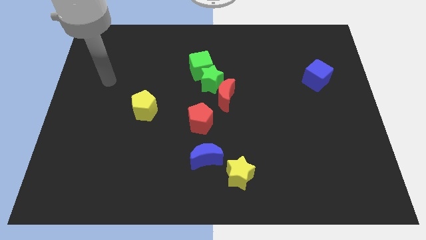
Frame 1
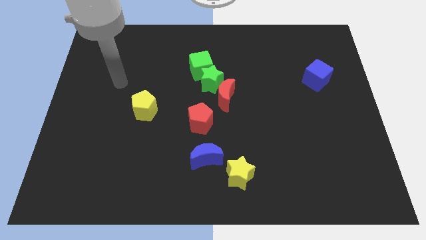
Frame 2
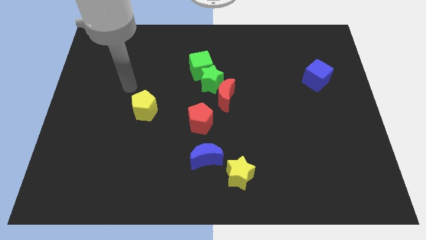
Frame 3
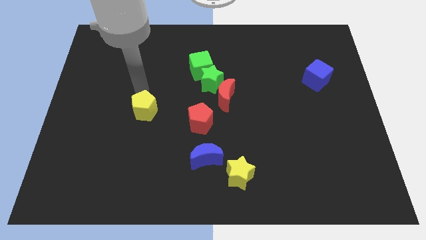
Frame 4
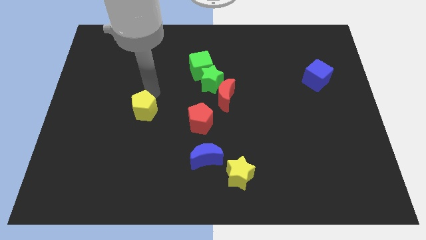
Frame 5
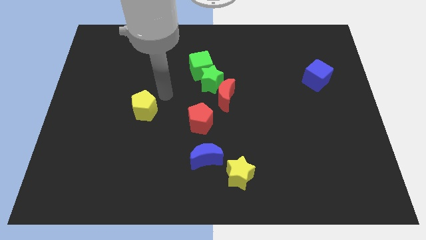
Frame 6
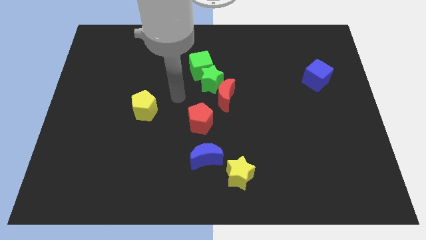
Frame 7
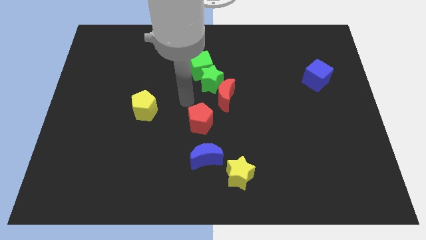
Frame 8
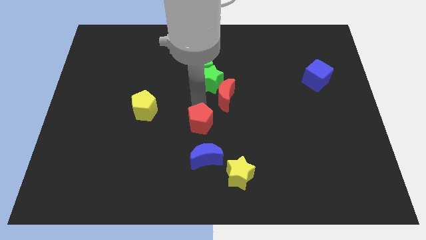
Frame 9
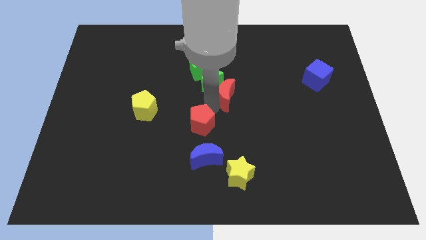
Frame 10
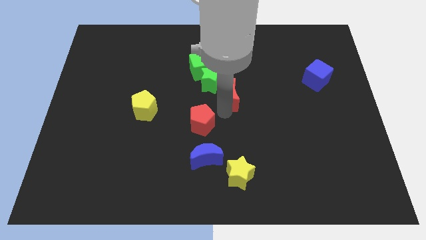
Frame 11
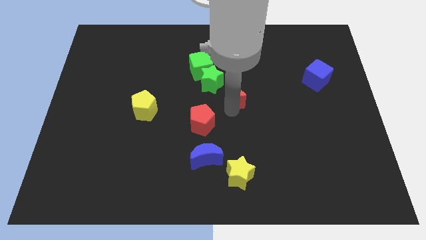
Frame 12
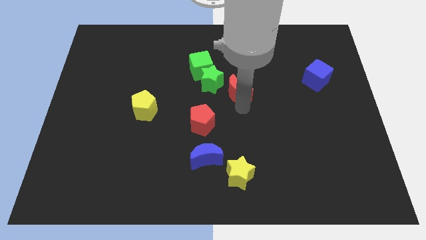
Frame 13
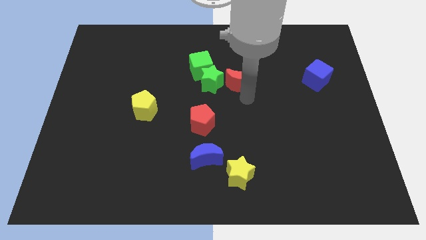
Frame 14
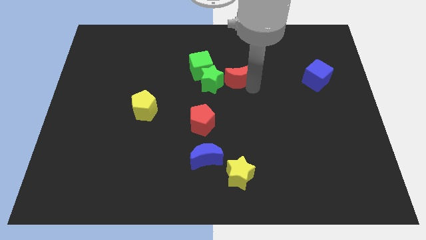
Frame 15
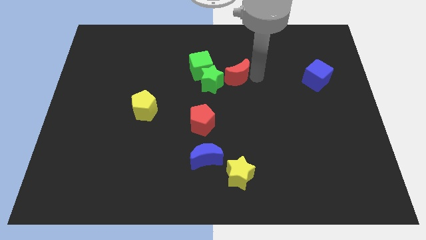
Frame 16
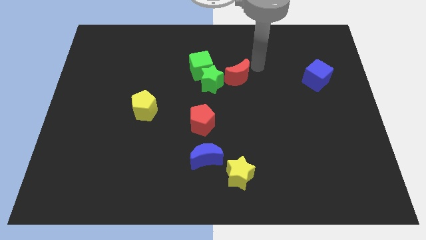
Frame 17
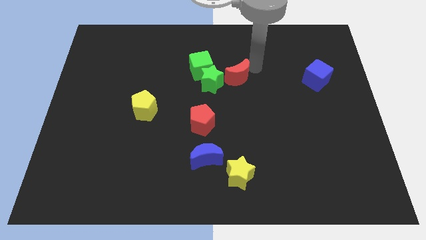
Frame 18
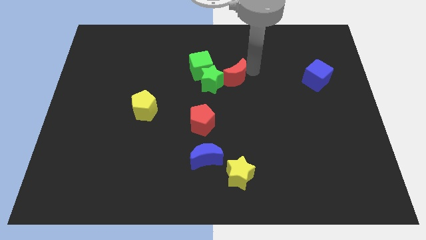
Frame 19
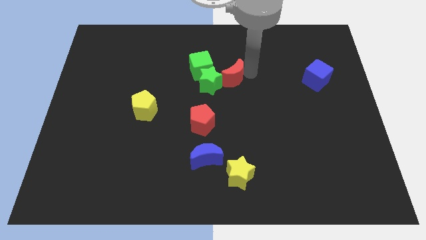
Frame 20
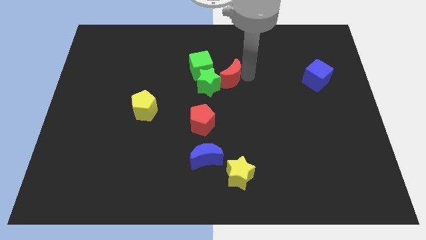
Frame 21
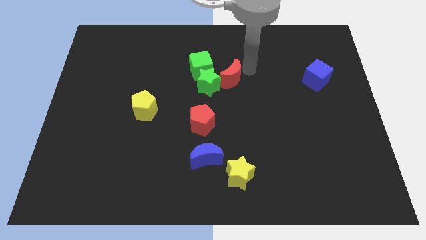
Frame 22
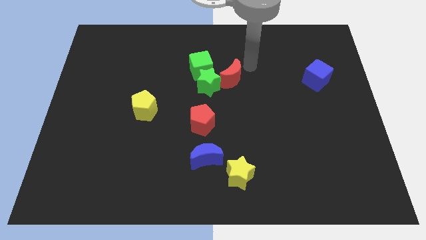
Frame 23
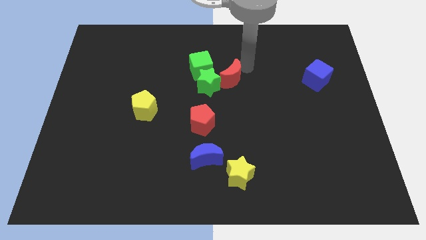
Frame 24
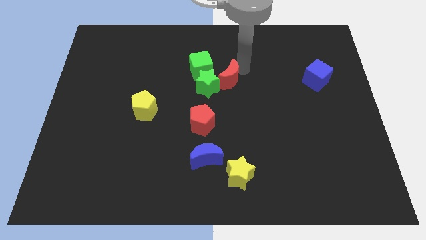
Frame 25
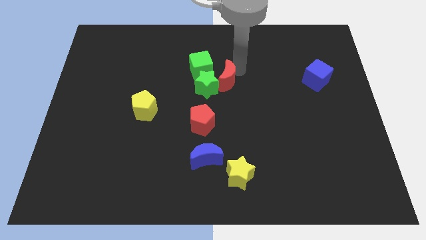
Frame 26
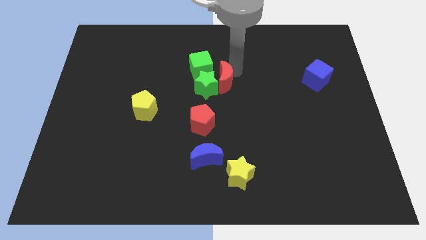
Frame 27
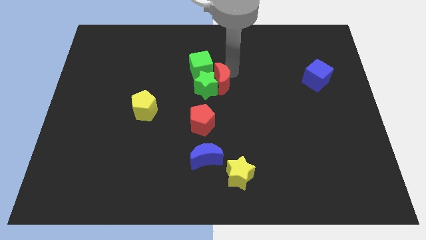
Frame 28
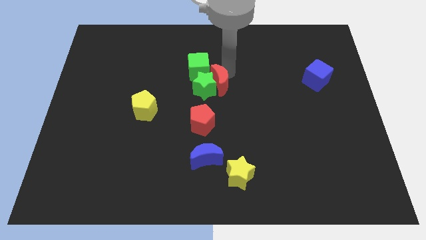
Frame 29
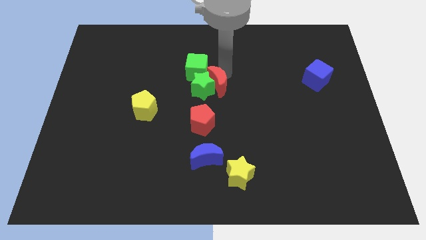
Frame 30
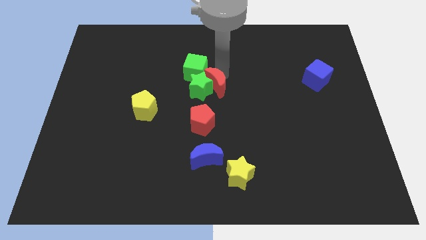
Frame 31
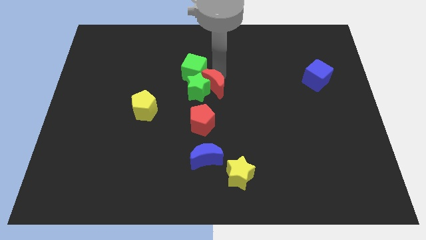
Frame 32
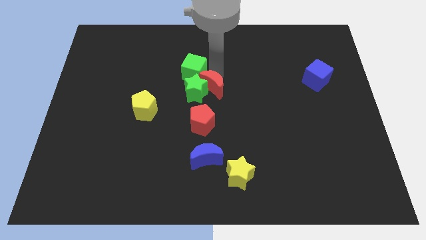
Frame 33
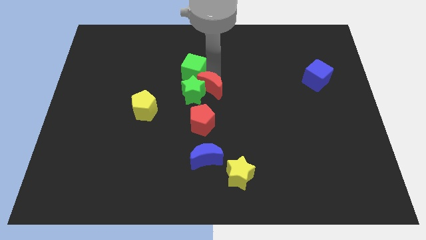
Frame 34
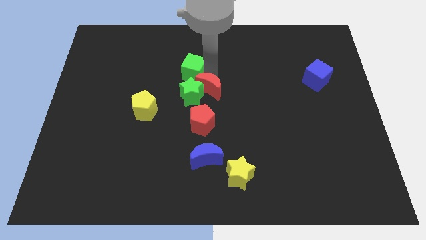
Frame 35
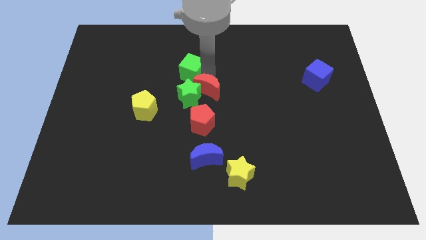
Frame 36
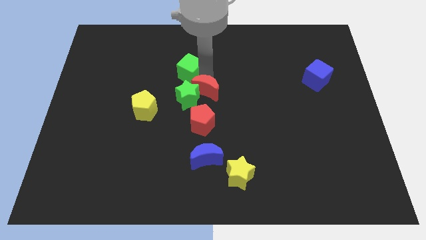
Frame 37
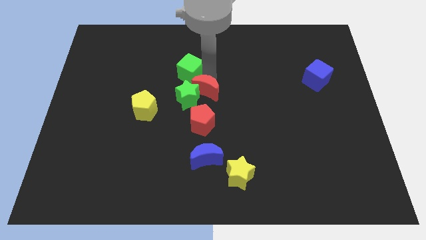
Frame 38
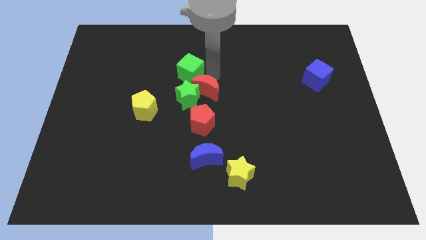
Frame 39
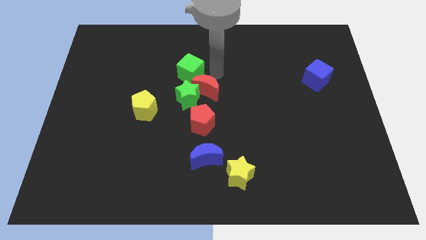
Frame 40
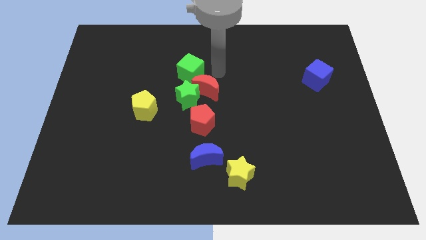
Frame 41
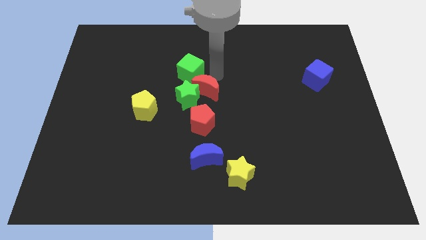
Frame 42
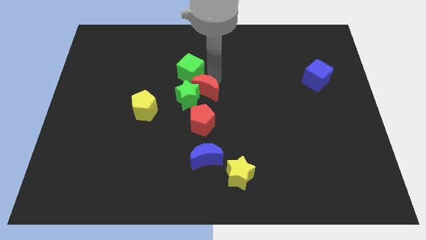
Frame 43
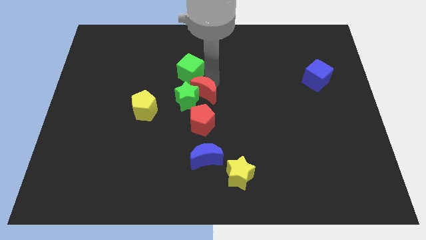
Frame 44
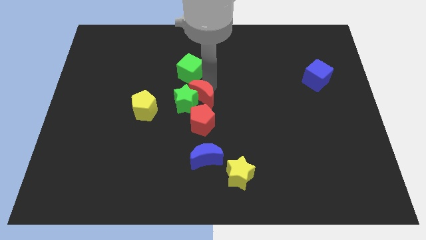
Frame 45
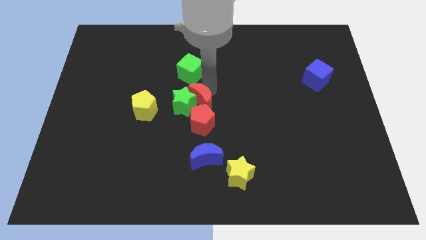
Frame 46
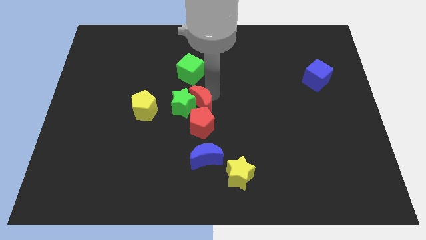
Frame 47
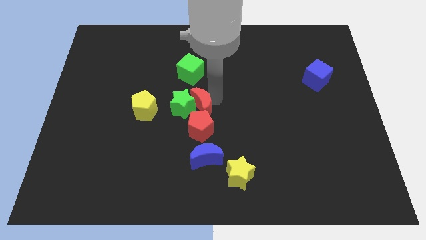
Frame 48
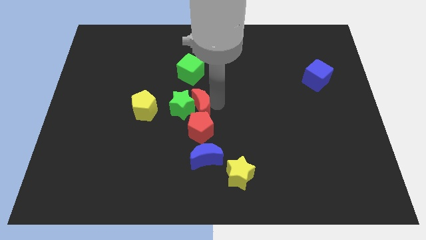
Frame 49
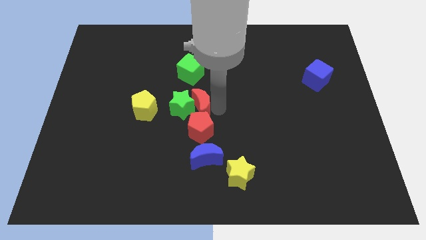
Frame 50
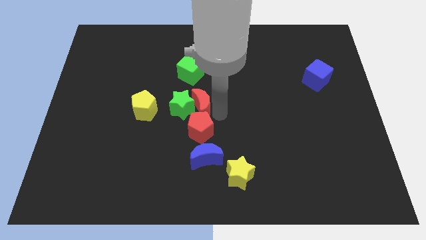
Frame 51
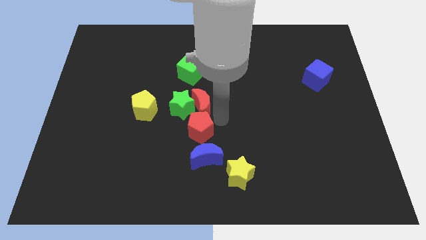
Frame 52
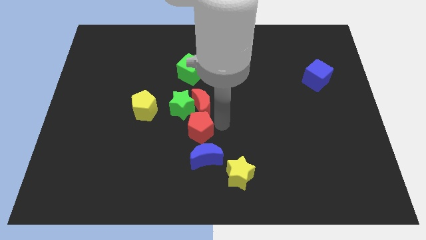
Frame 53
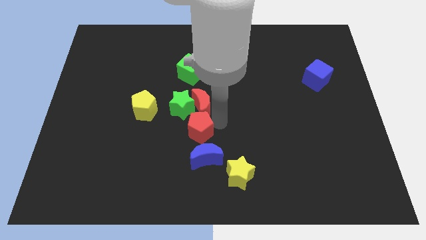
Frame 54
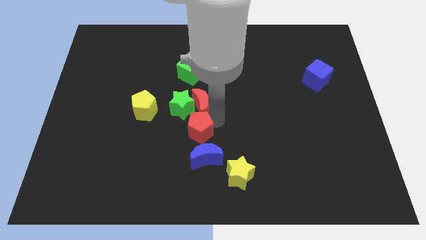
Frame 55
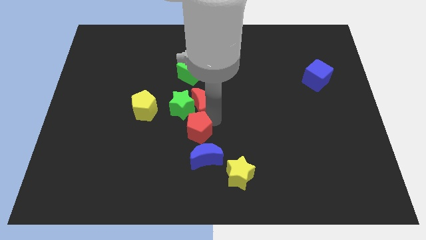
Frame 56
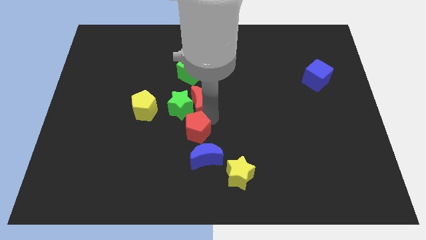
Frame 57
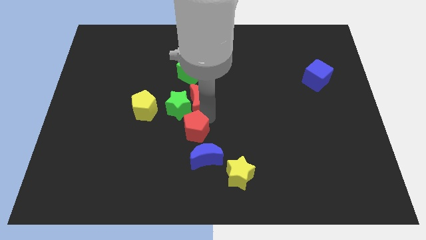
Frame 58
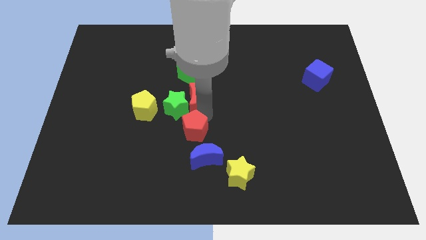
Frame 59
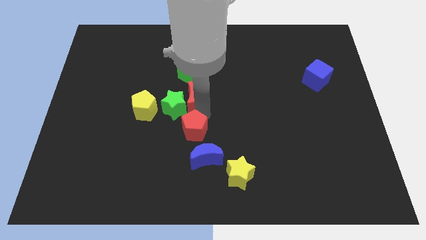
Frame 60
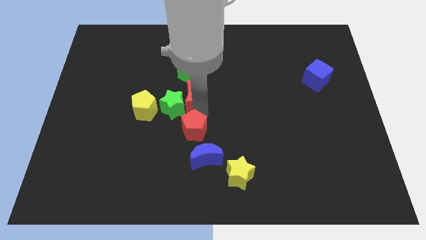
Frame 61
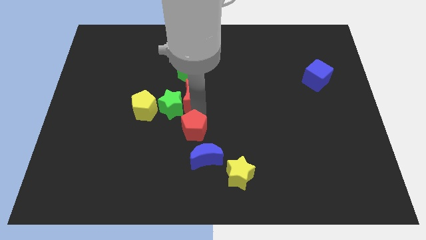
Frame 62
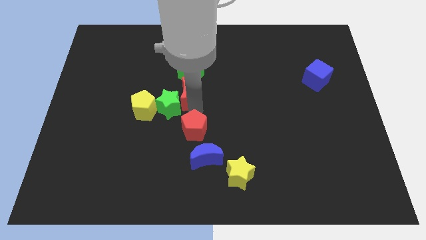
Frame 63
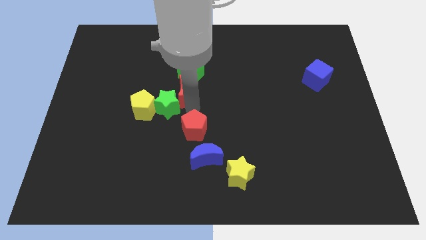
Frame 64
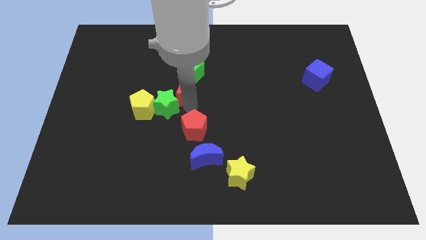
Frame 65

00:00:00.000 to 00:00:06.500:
slide the red moon upwards and then to the left a little bit

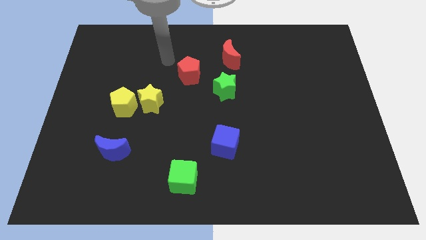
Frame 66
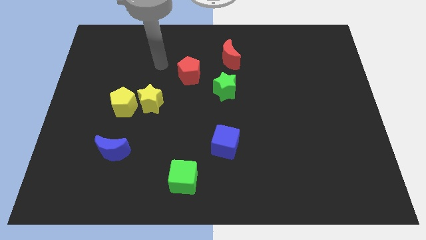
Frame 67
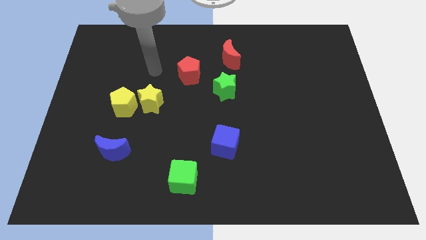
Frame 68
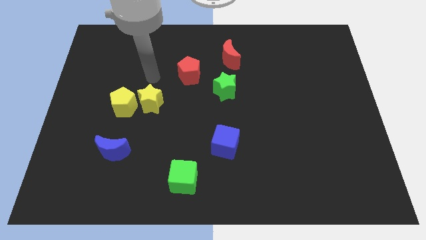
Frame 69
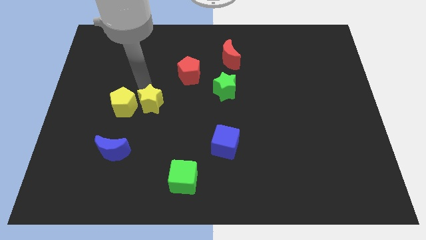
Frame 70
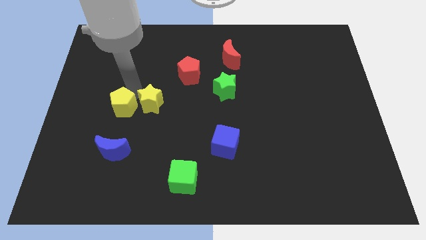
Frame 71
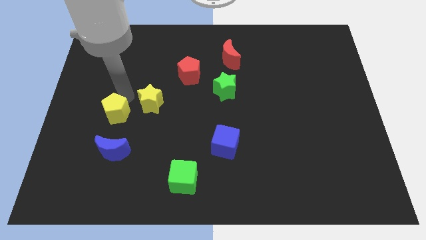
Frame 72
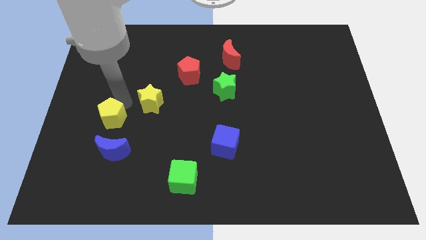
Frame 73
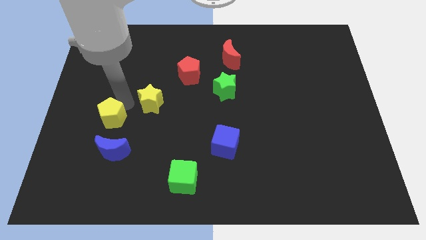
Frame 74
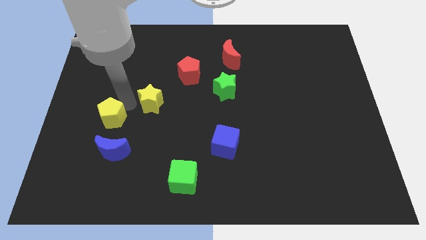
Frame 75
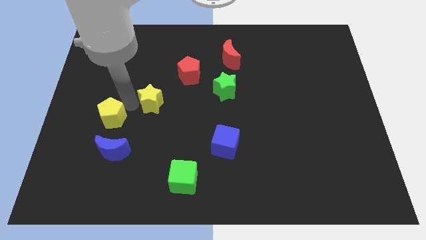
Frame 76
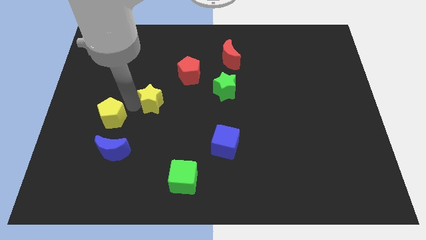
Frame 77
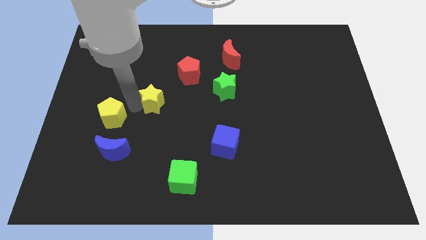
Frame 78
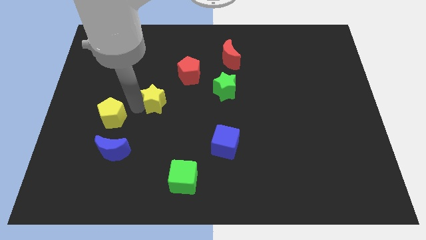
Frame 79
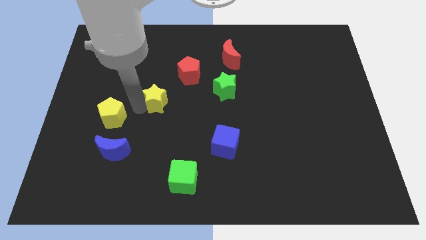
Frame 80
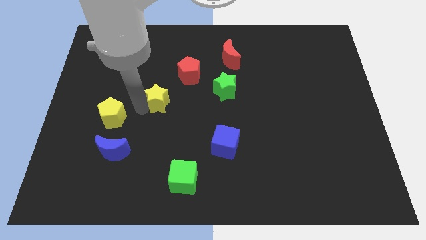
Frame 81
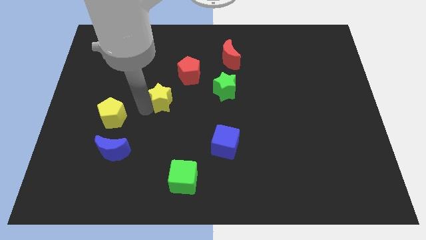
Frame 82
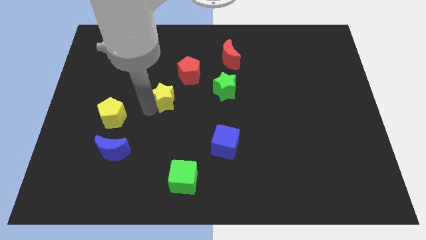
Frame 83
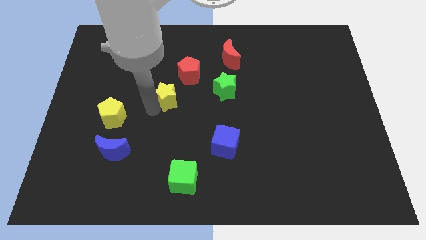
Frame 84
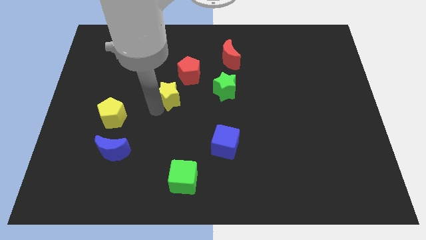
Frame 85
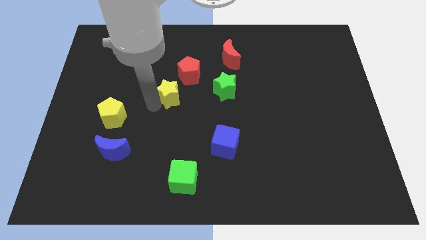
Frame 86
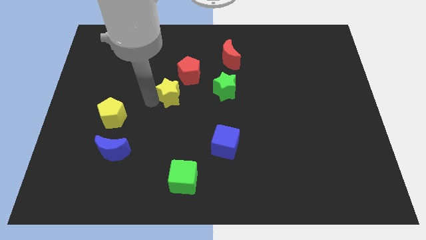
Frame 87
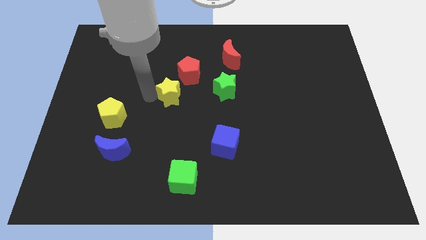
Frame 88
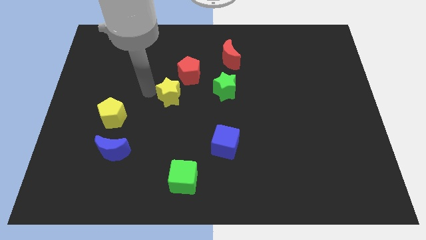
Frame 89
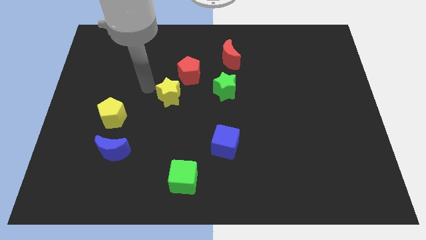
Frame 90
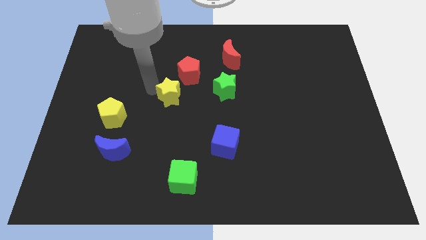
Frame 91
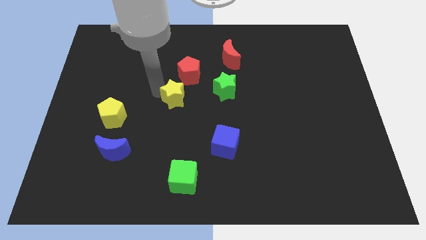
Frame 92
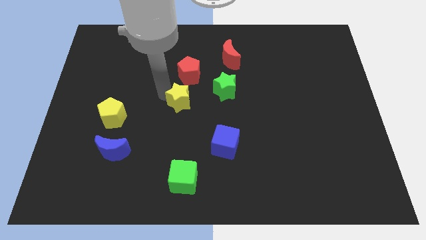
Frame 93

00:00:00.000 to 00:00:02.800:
slightly slide the yellow star to the right
